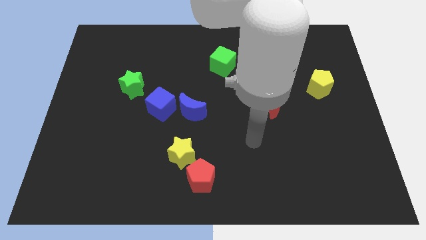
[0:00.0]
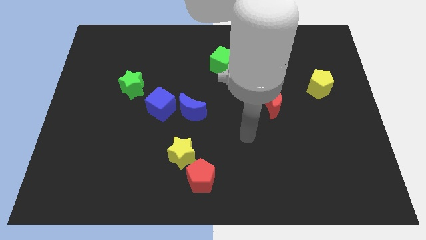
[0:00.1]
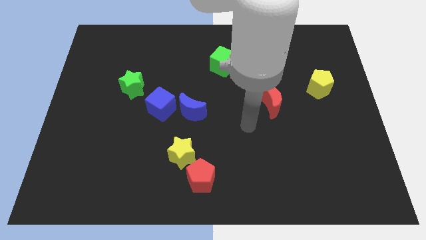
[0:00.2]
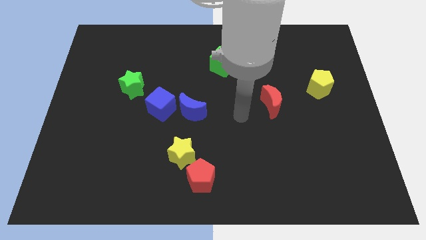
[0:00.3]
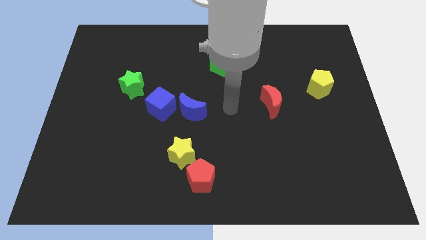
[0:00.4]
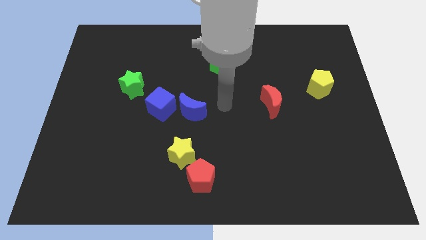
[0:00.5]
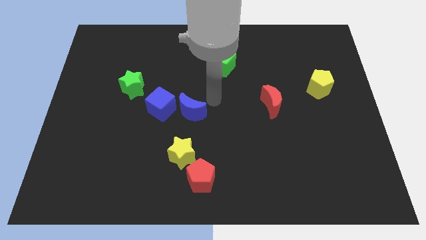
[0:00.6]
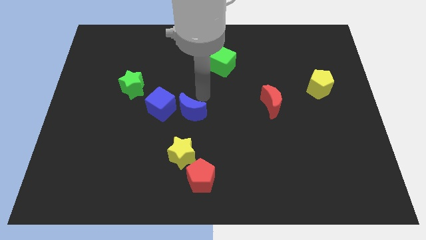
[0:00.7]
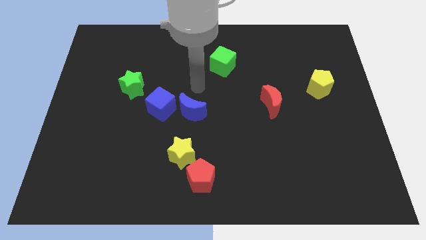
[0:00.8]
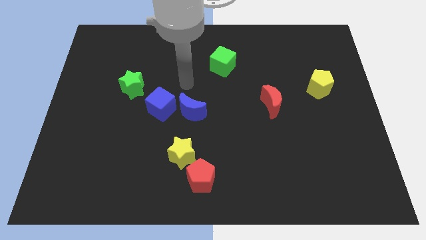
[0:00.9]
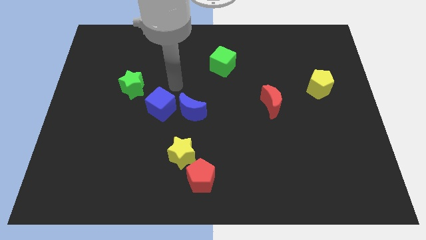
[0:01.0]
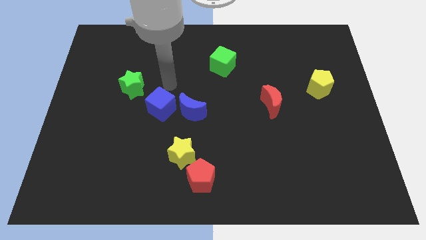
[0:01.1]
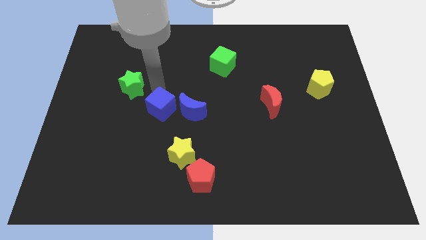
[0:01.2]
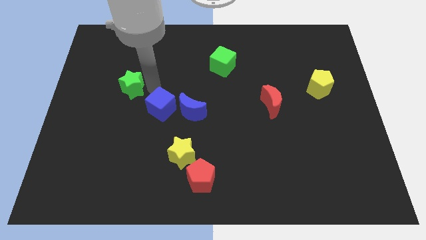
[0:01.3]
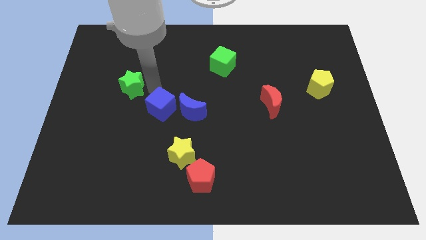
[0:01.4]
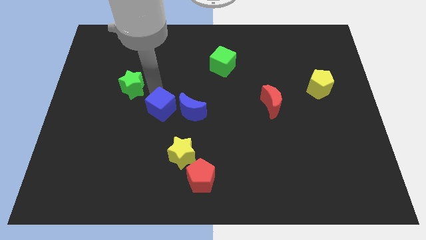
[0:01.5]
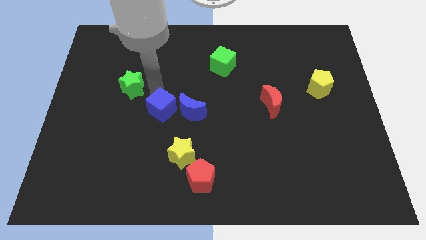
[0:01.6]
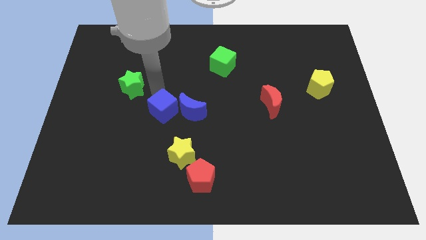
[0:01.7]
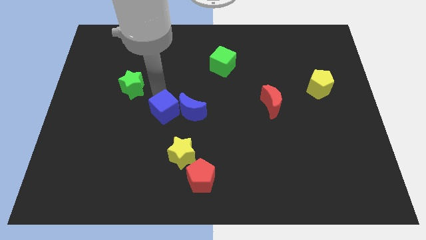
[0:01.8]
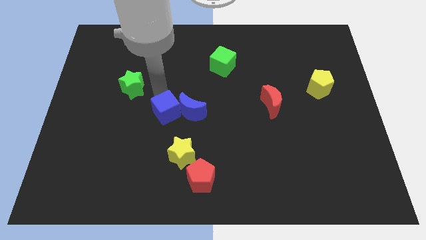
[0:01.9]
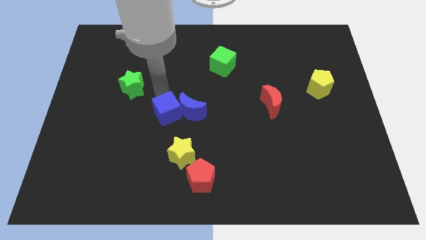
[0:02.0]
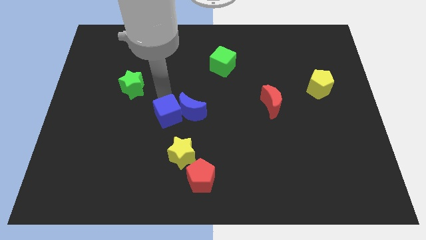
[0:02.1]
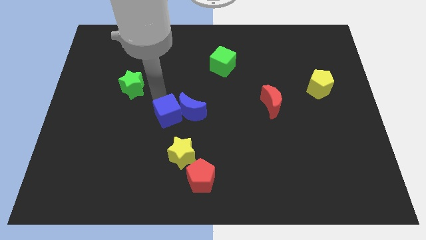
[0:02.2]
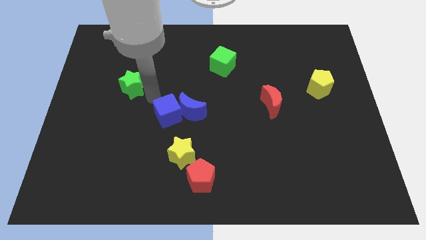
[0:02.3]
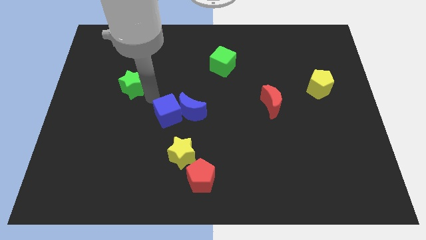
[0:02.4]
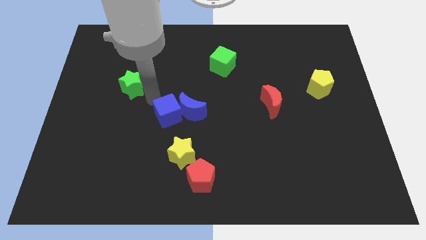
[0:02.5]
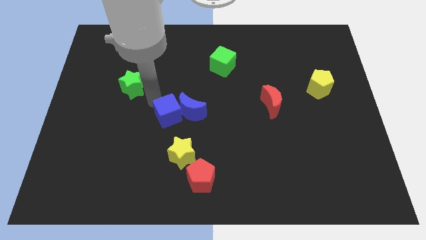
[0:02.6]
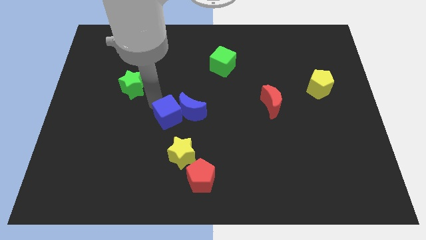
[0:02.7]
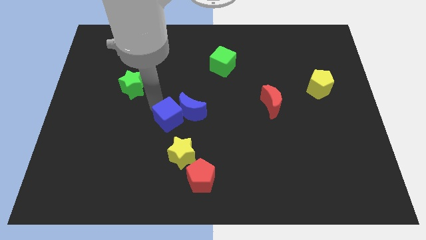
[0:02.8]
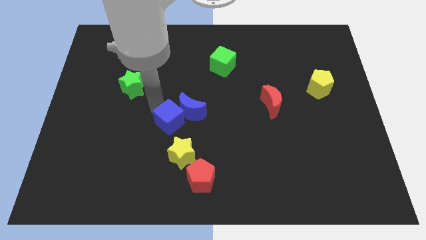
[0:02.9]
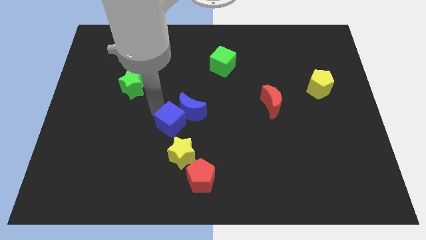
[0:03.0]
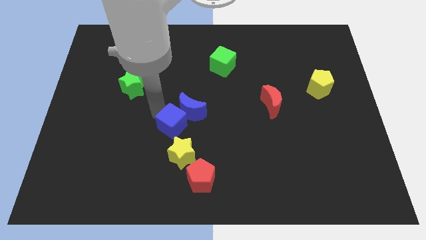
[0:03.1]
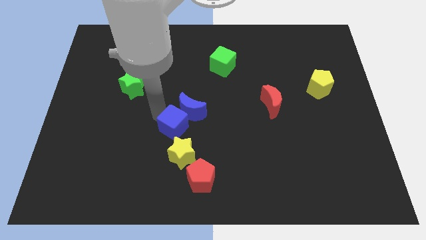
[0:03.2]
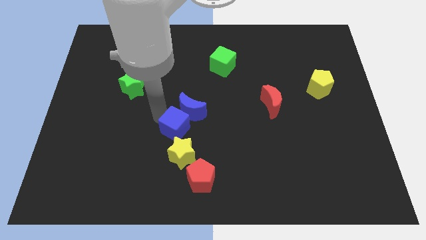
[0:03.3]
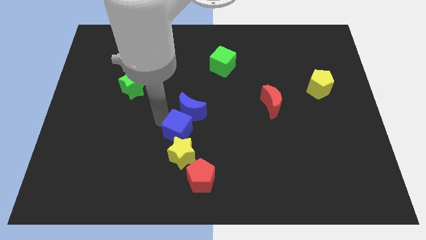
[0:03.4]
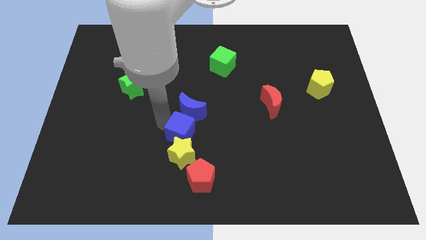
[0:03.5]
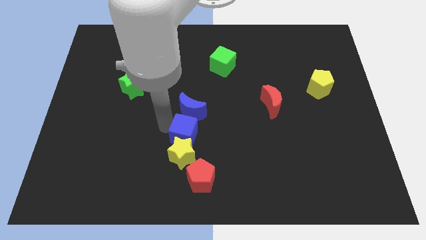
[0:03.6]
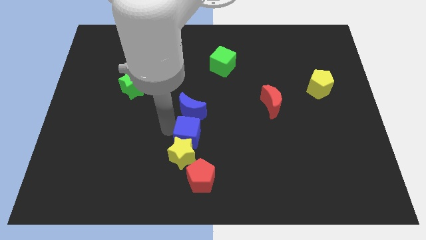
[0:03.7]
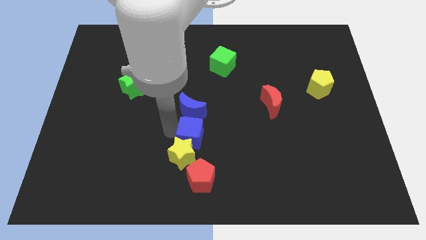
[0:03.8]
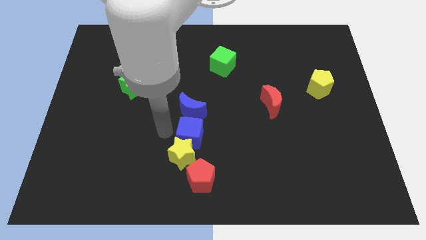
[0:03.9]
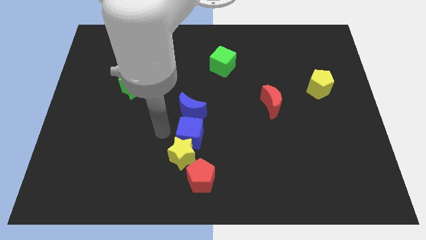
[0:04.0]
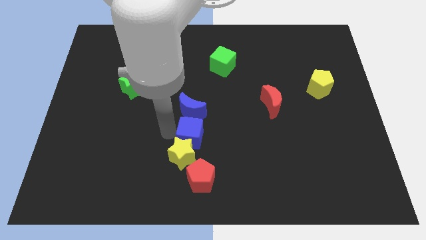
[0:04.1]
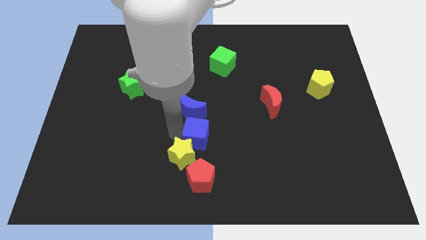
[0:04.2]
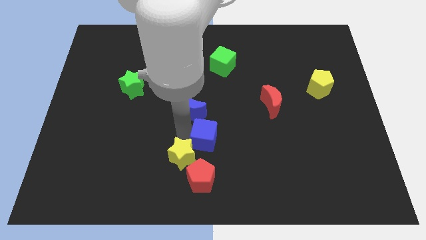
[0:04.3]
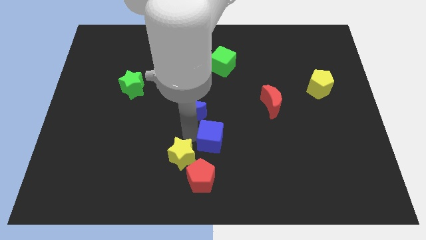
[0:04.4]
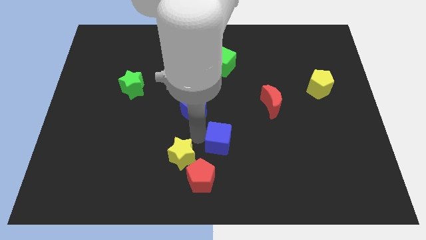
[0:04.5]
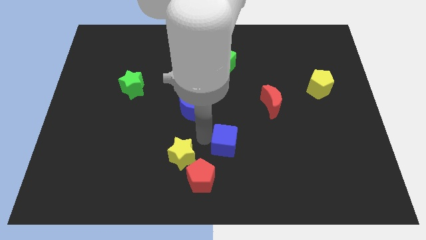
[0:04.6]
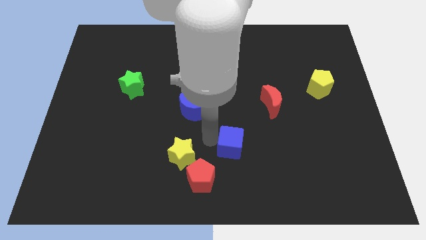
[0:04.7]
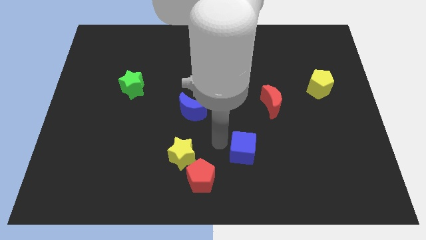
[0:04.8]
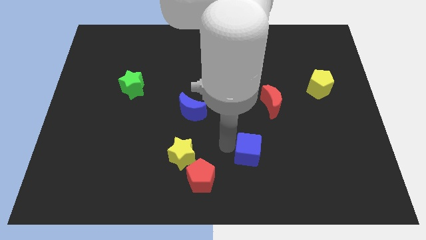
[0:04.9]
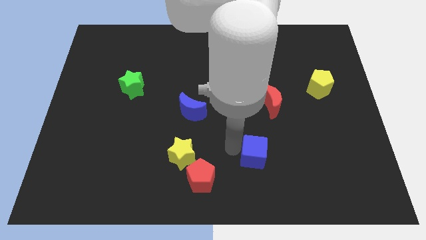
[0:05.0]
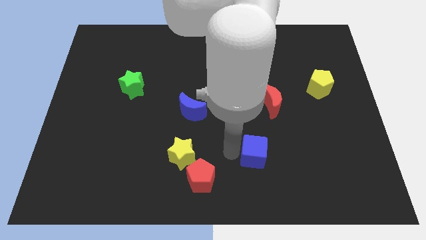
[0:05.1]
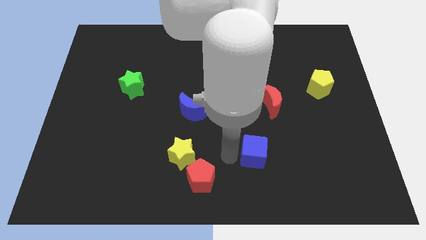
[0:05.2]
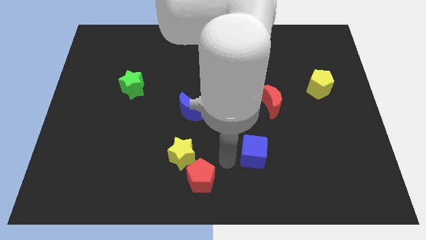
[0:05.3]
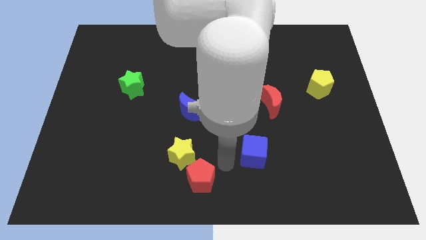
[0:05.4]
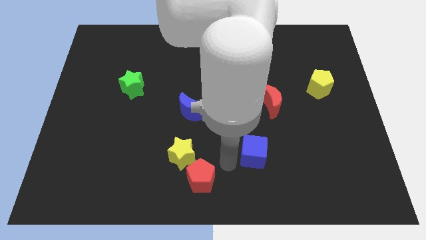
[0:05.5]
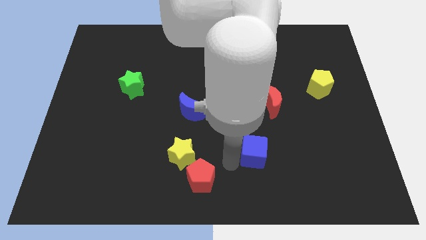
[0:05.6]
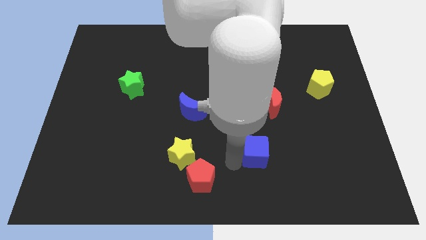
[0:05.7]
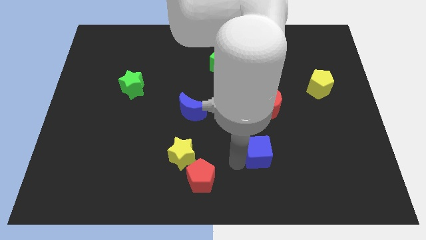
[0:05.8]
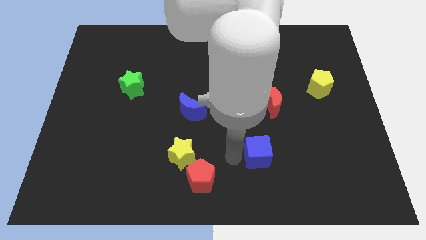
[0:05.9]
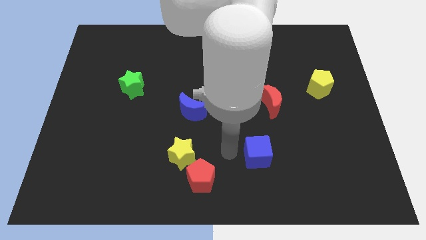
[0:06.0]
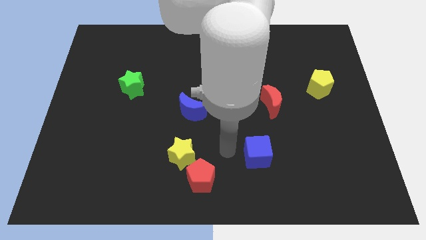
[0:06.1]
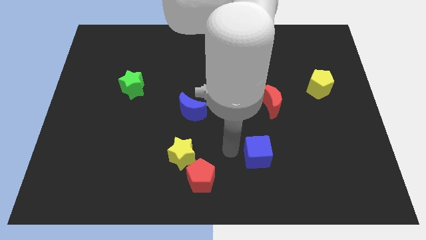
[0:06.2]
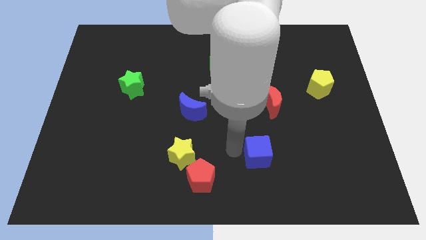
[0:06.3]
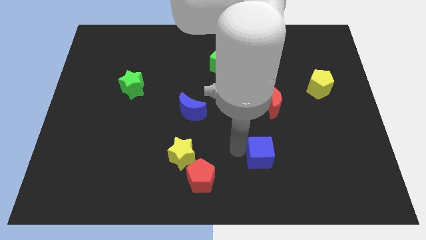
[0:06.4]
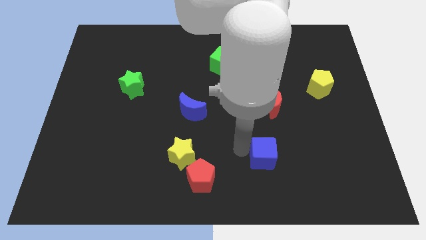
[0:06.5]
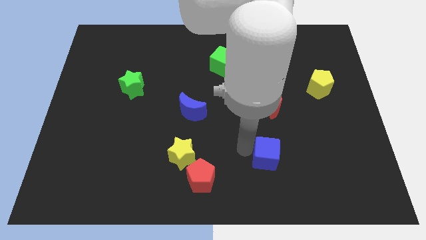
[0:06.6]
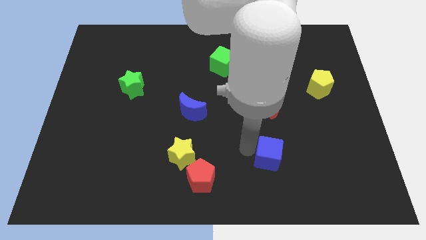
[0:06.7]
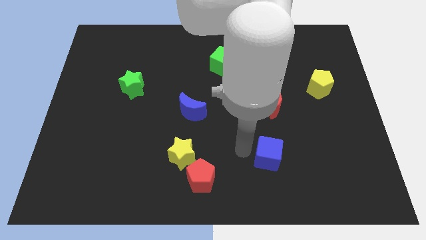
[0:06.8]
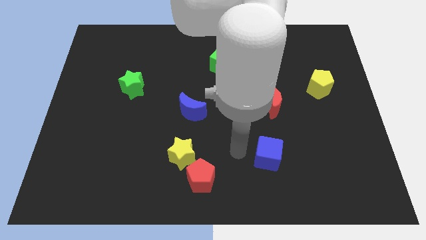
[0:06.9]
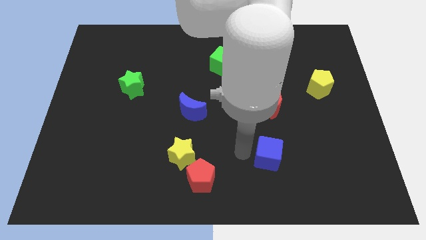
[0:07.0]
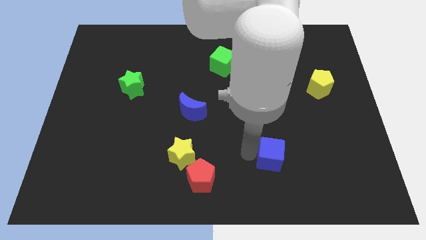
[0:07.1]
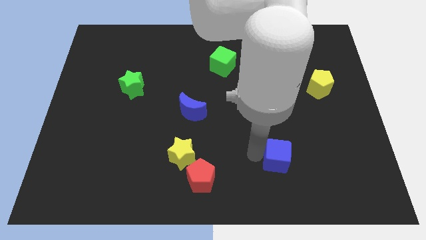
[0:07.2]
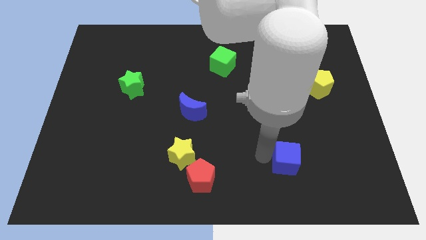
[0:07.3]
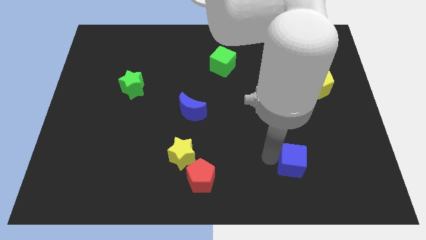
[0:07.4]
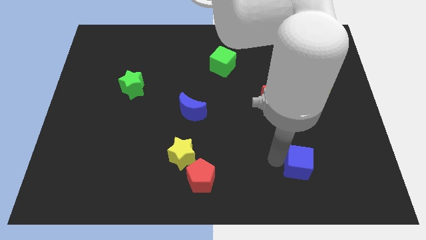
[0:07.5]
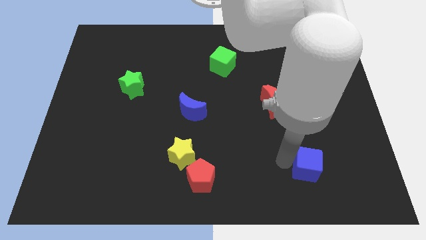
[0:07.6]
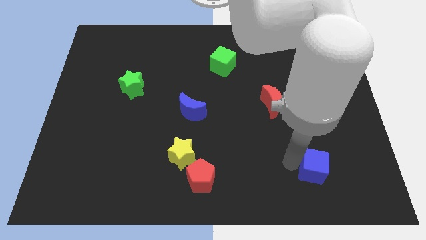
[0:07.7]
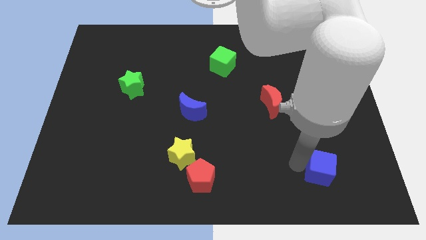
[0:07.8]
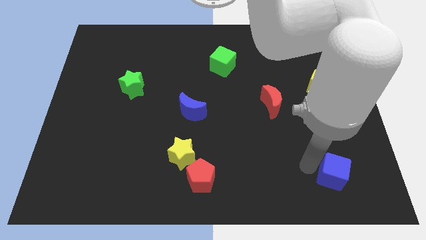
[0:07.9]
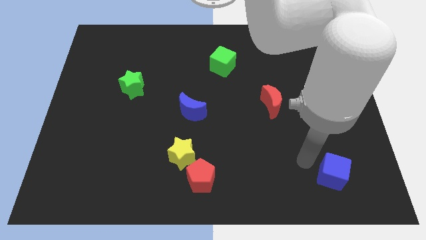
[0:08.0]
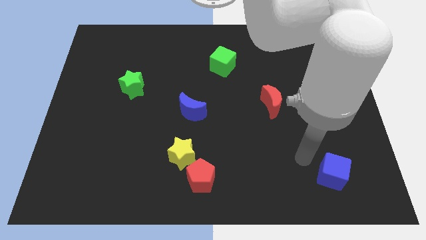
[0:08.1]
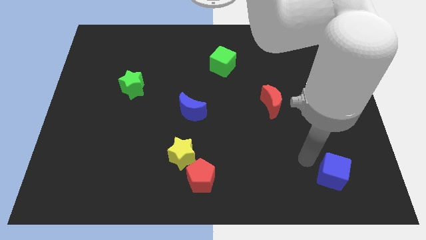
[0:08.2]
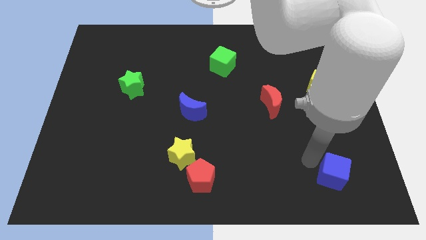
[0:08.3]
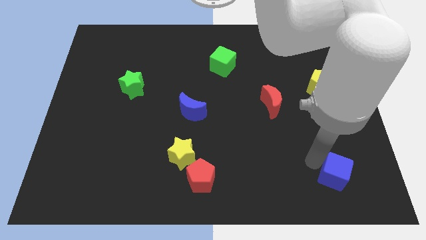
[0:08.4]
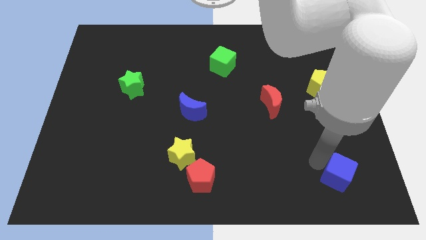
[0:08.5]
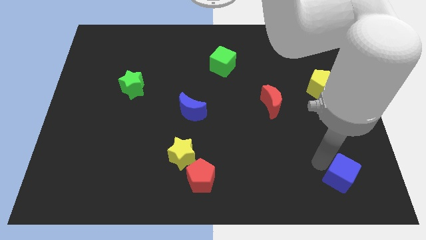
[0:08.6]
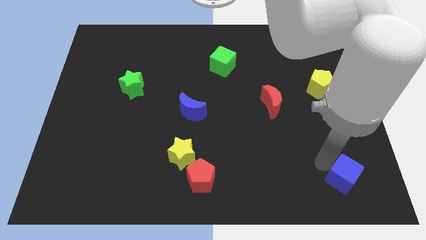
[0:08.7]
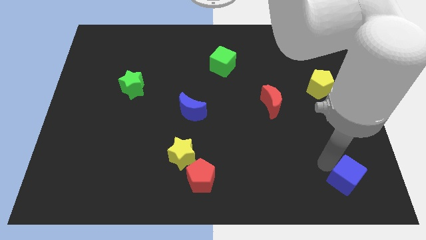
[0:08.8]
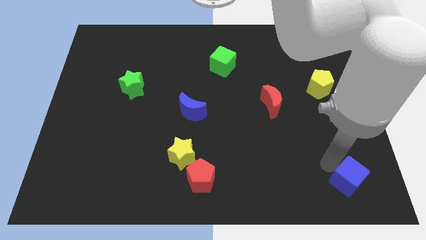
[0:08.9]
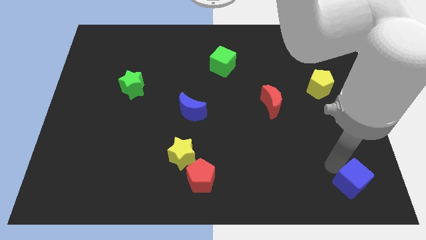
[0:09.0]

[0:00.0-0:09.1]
move the blue cube to the bottom right of the board
